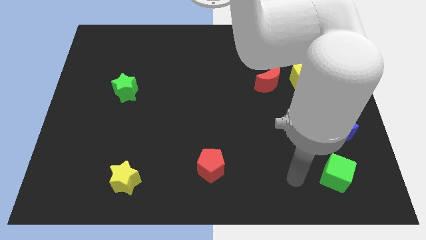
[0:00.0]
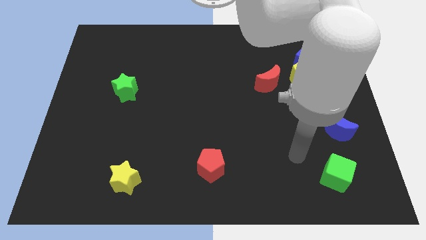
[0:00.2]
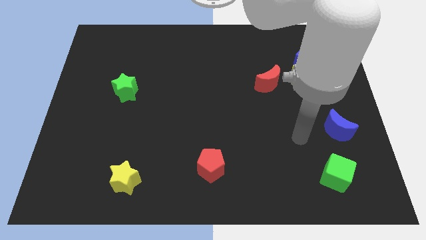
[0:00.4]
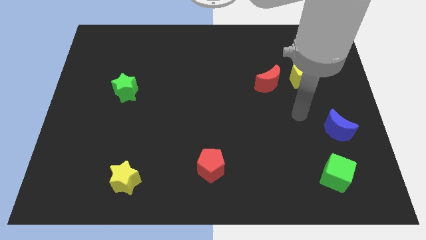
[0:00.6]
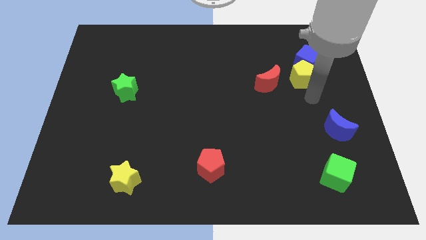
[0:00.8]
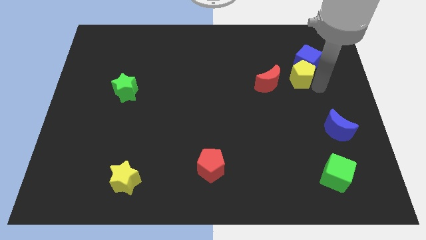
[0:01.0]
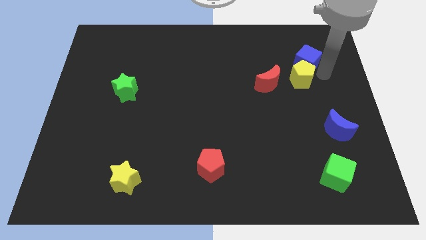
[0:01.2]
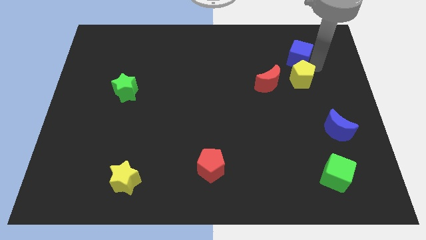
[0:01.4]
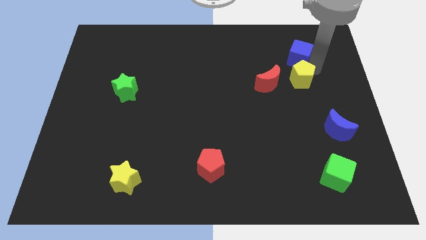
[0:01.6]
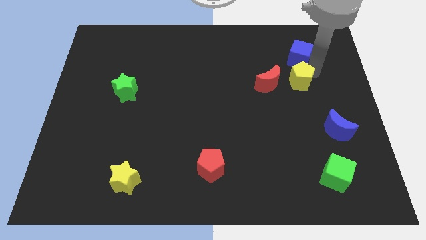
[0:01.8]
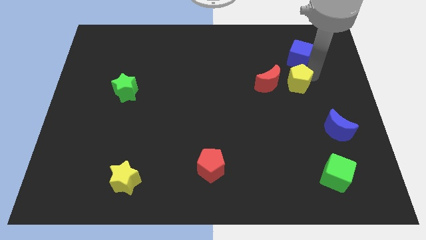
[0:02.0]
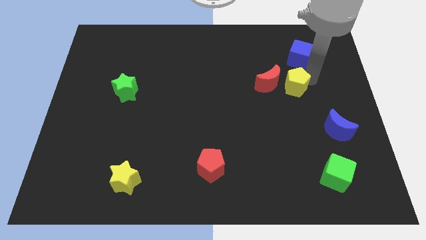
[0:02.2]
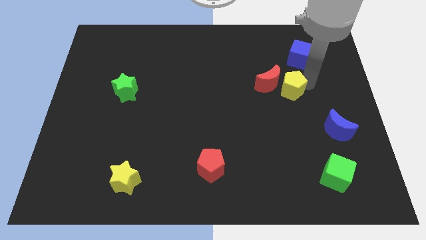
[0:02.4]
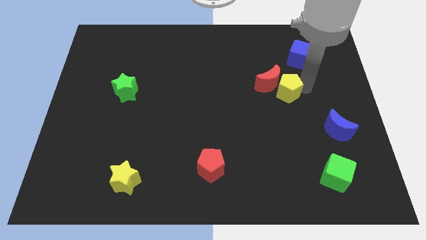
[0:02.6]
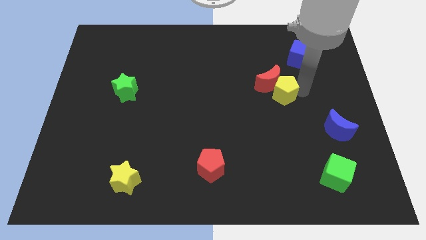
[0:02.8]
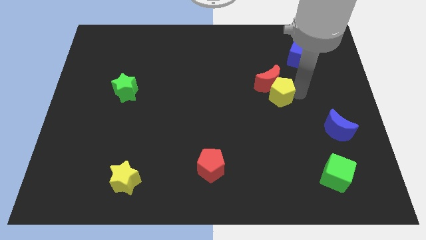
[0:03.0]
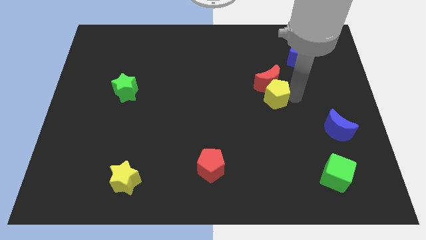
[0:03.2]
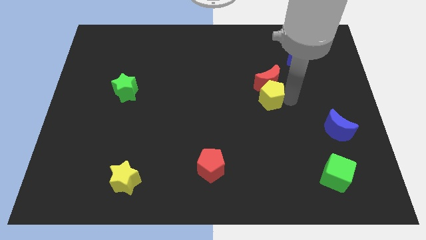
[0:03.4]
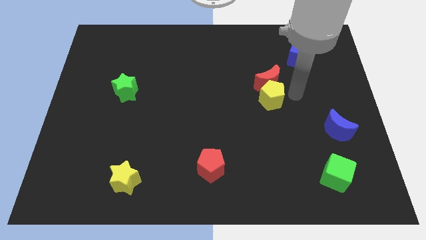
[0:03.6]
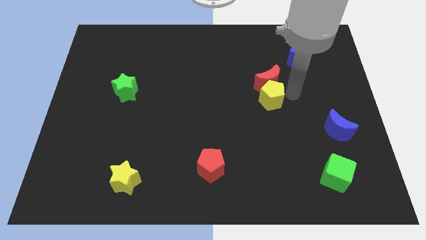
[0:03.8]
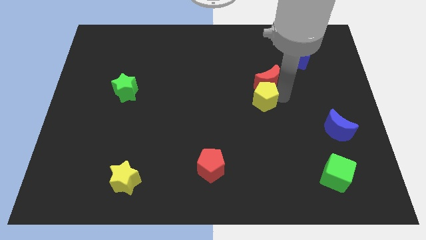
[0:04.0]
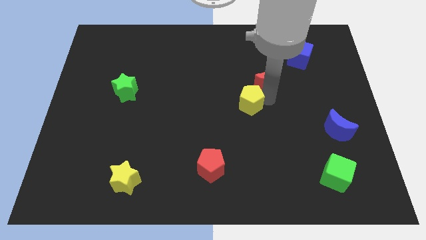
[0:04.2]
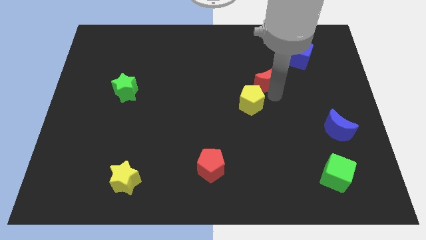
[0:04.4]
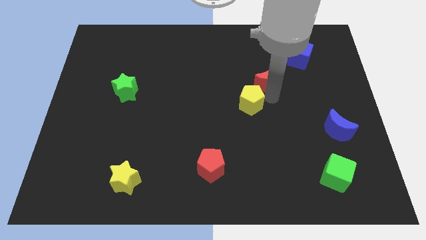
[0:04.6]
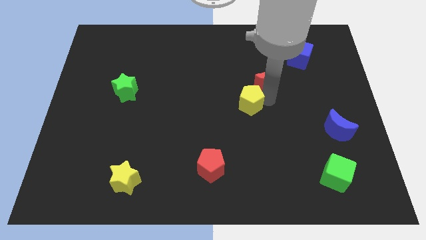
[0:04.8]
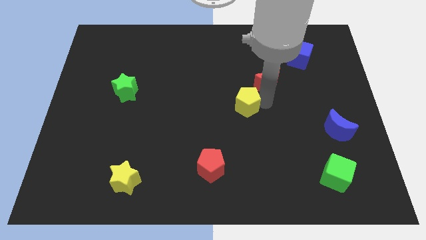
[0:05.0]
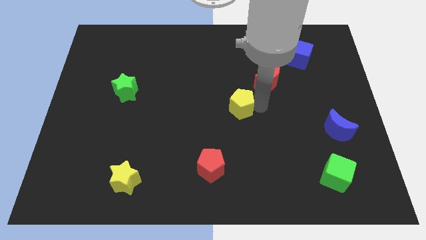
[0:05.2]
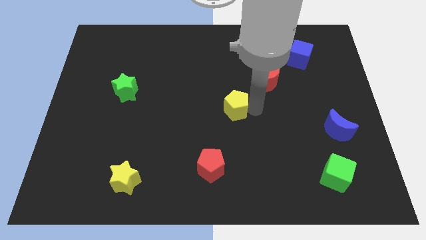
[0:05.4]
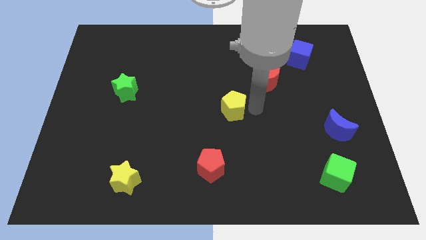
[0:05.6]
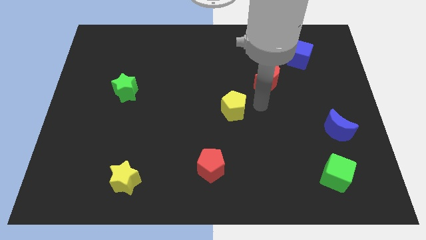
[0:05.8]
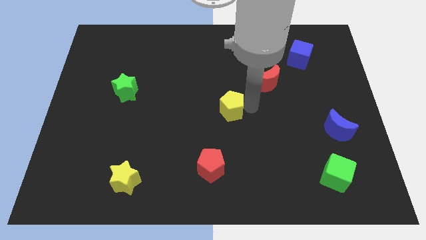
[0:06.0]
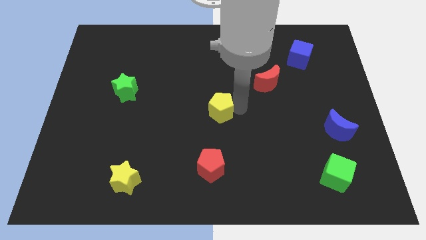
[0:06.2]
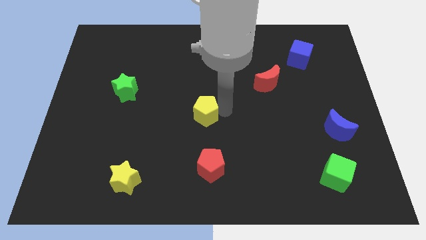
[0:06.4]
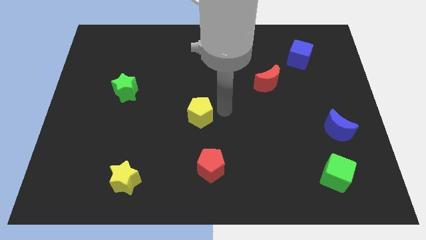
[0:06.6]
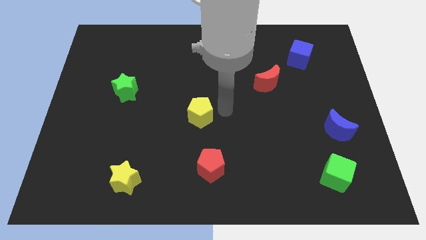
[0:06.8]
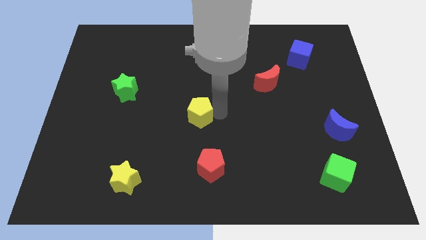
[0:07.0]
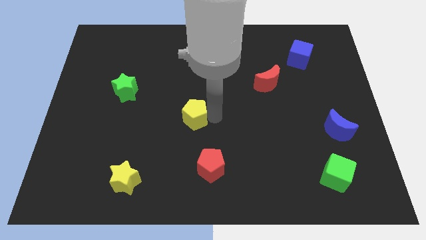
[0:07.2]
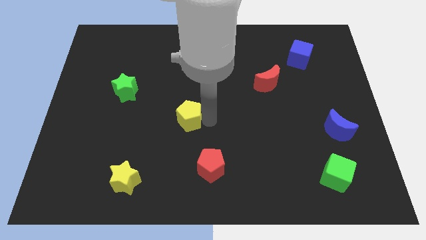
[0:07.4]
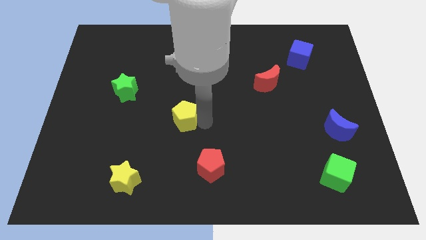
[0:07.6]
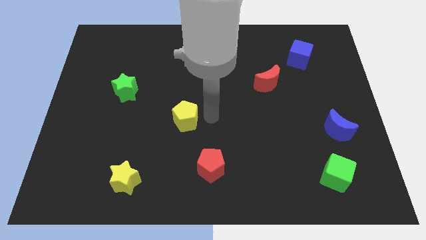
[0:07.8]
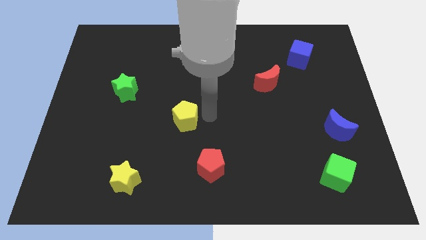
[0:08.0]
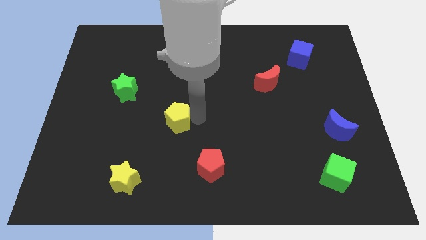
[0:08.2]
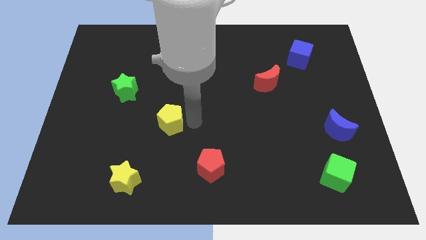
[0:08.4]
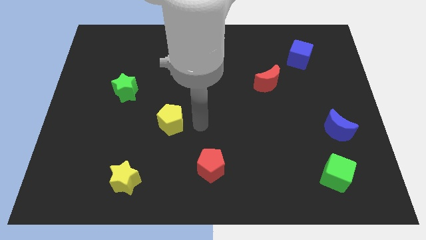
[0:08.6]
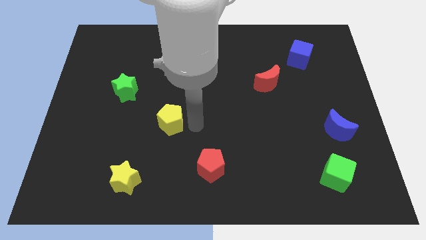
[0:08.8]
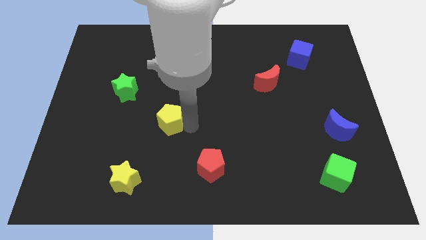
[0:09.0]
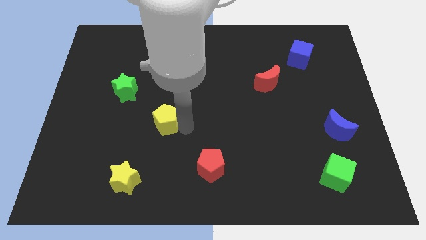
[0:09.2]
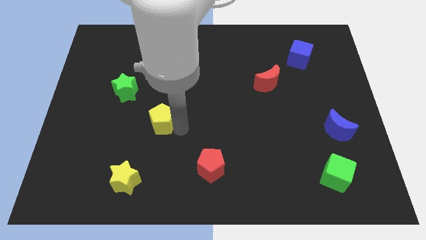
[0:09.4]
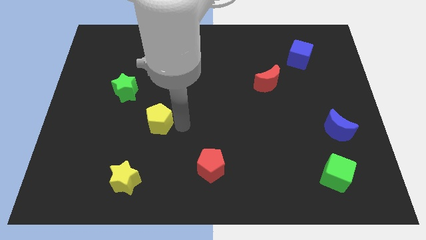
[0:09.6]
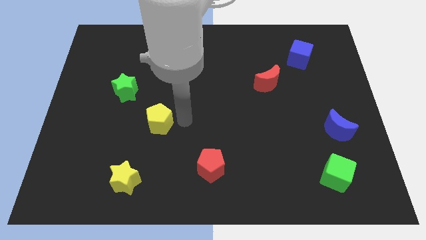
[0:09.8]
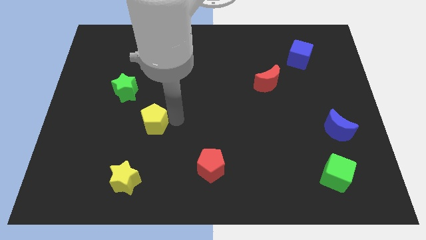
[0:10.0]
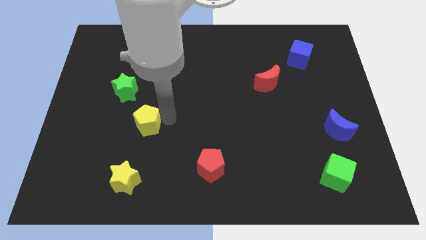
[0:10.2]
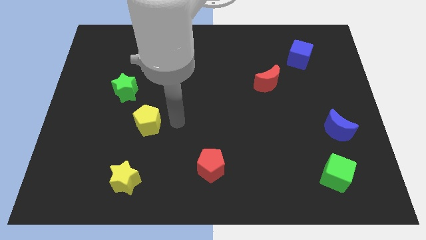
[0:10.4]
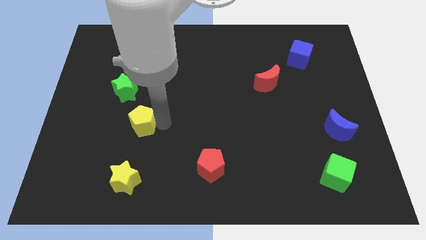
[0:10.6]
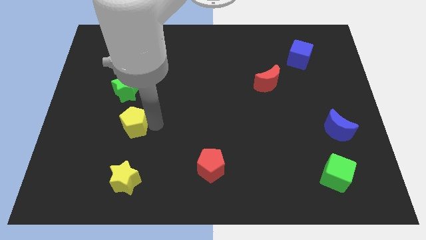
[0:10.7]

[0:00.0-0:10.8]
move the yellow pentagon to the bottom side of the green star

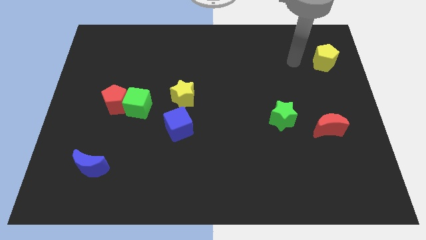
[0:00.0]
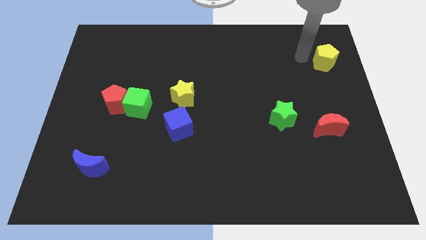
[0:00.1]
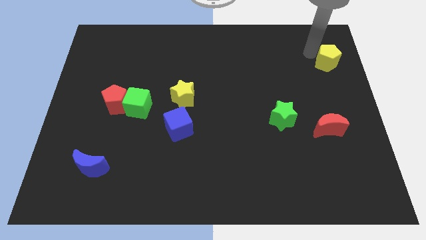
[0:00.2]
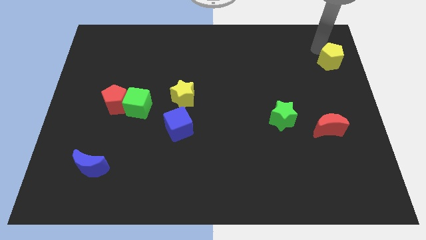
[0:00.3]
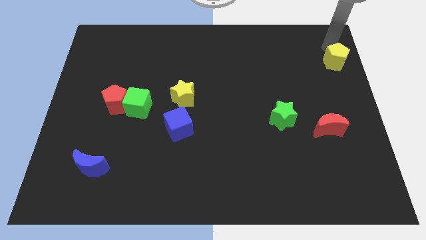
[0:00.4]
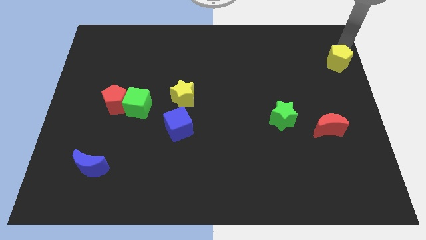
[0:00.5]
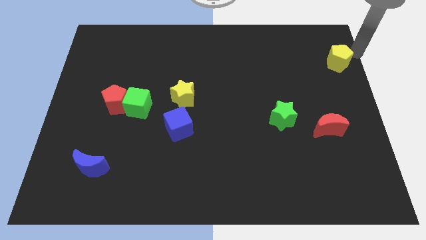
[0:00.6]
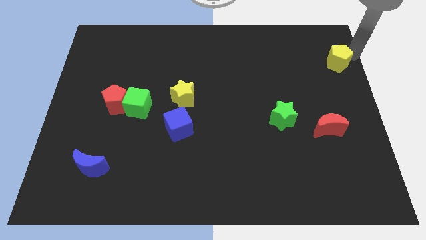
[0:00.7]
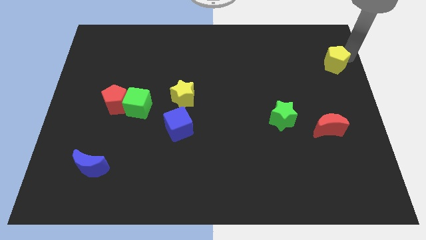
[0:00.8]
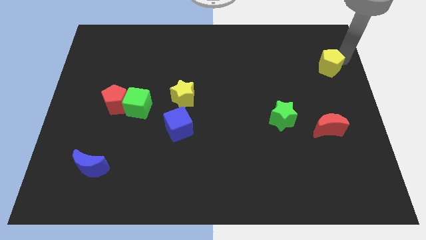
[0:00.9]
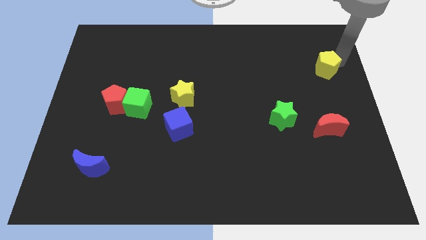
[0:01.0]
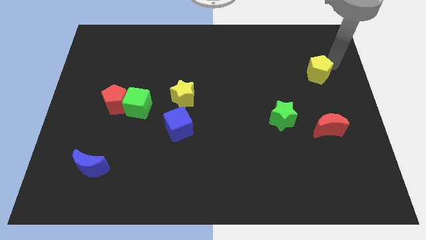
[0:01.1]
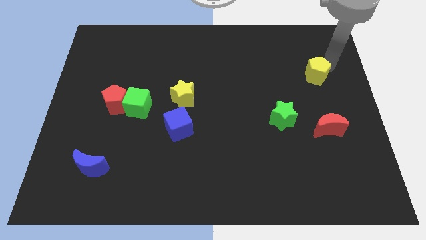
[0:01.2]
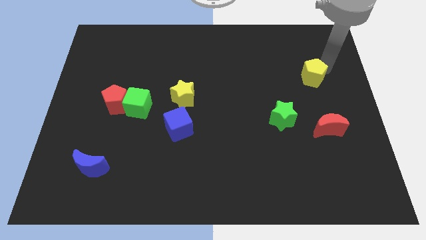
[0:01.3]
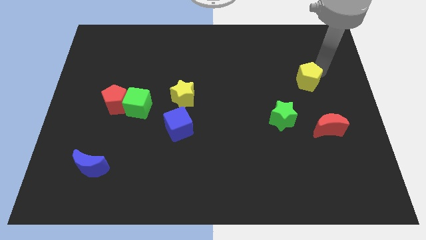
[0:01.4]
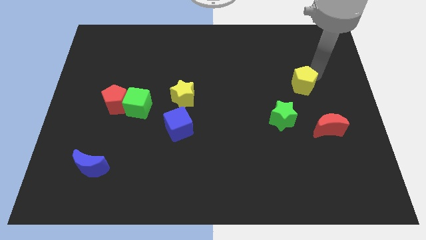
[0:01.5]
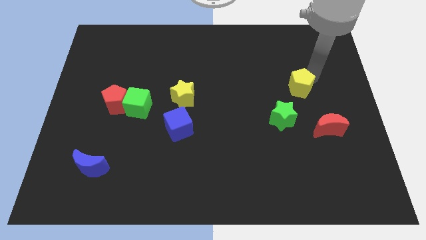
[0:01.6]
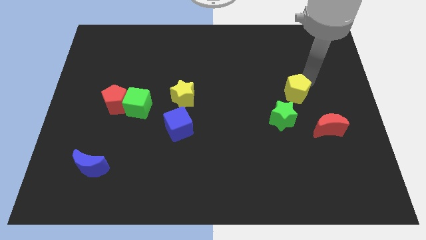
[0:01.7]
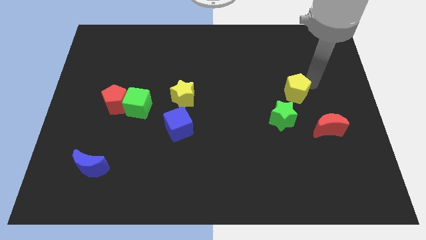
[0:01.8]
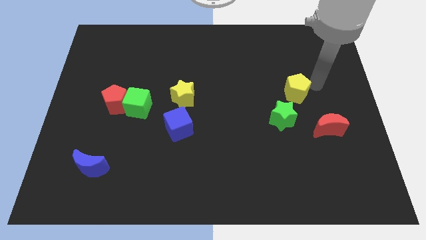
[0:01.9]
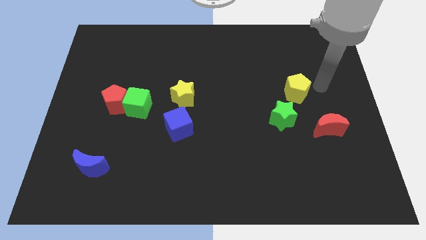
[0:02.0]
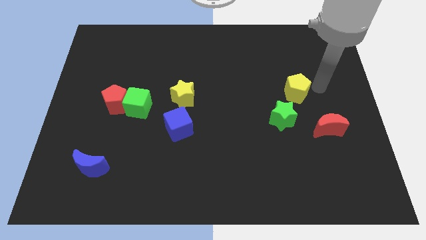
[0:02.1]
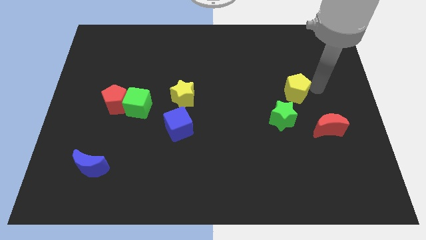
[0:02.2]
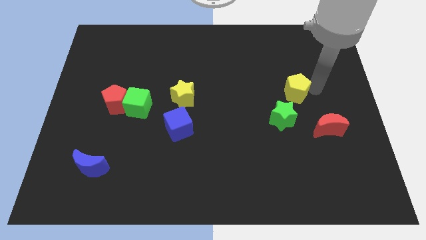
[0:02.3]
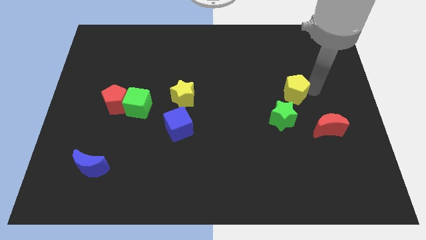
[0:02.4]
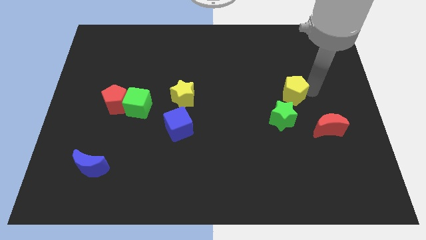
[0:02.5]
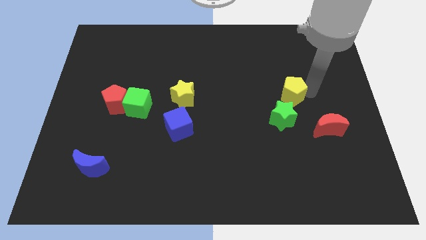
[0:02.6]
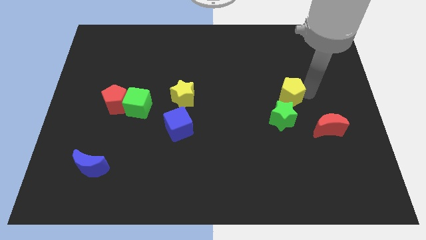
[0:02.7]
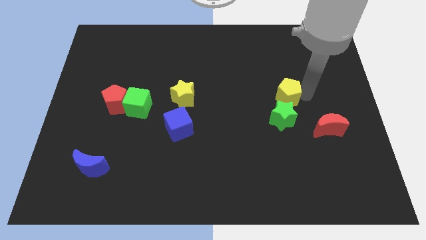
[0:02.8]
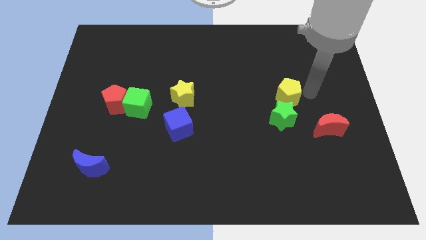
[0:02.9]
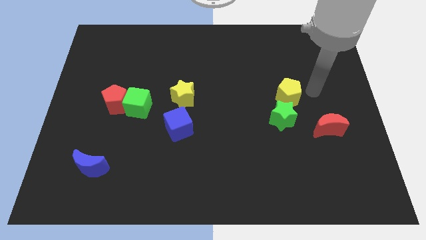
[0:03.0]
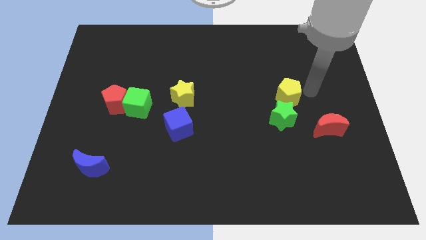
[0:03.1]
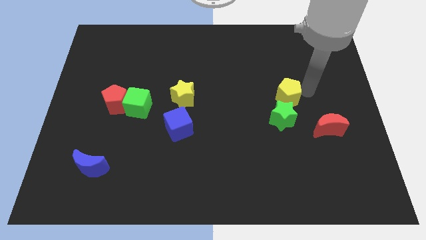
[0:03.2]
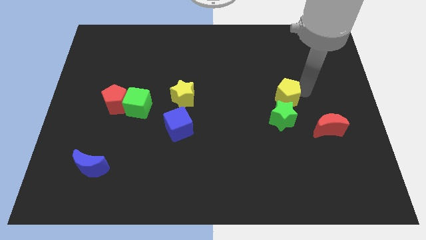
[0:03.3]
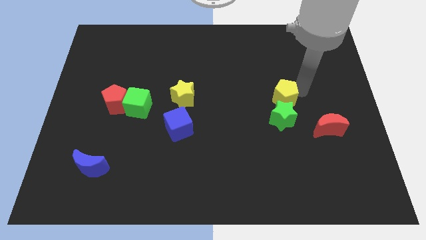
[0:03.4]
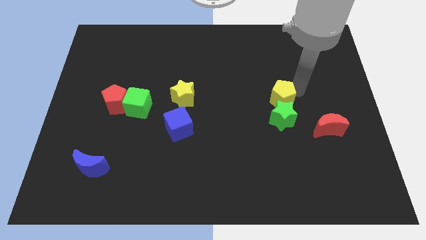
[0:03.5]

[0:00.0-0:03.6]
move the yellow pentagon to the top left of the green star
